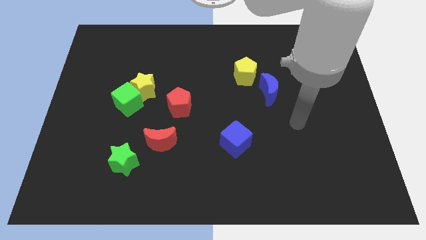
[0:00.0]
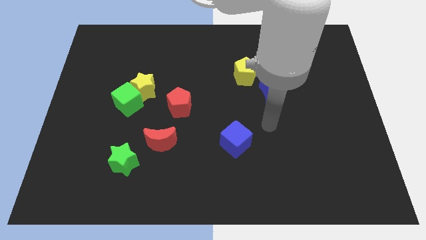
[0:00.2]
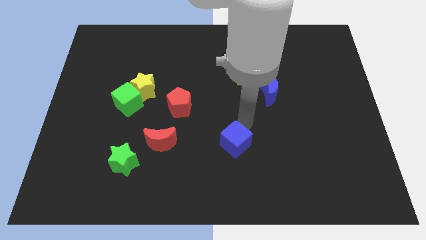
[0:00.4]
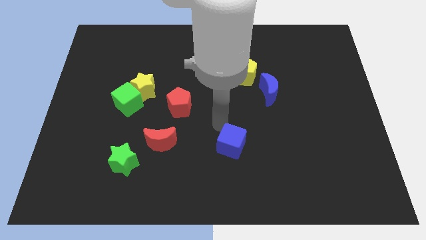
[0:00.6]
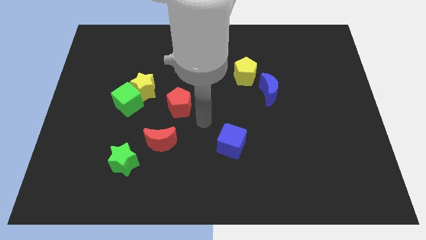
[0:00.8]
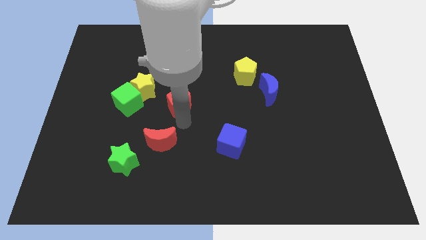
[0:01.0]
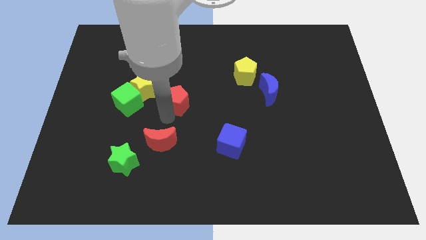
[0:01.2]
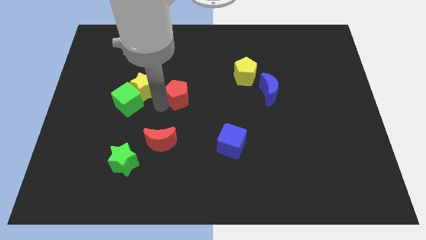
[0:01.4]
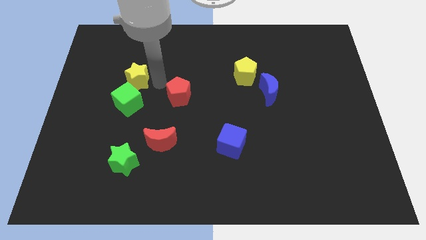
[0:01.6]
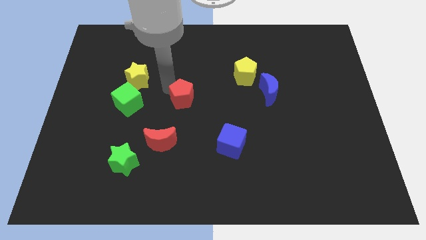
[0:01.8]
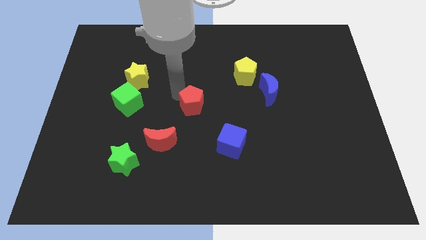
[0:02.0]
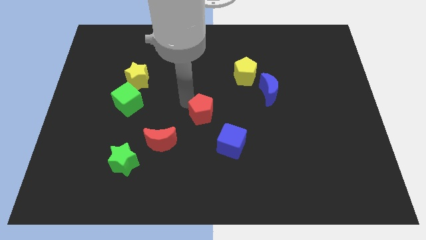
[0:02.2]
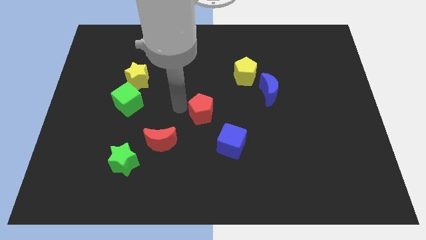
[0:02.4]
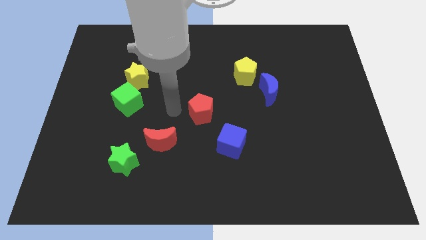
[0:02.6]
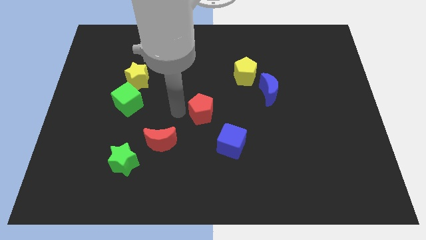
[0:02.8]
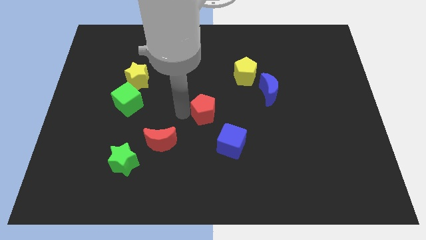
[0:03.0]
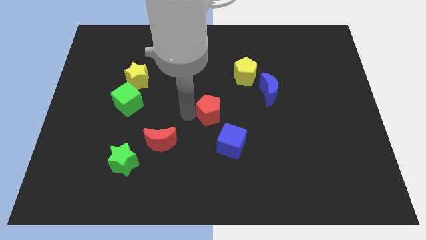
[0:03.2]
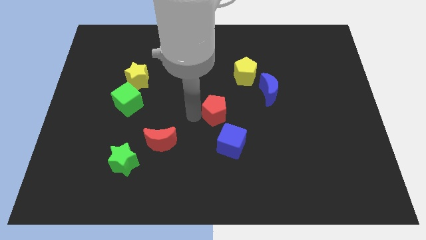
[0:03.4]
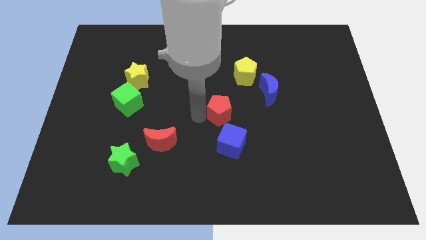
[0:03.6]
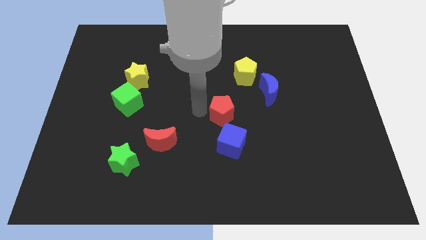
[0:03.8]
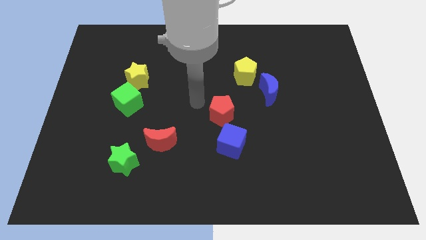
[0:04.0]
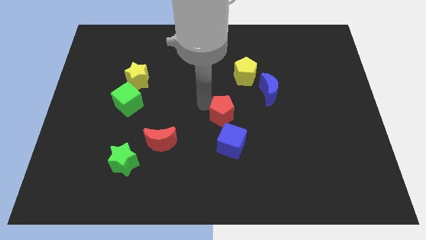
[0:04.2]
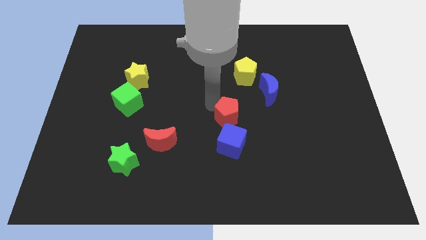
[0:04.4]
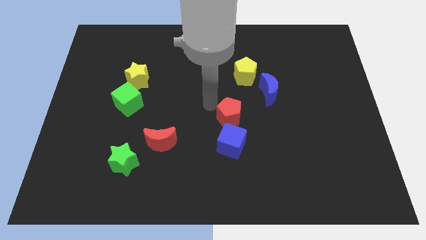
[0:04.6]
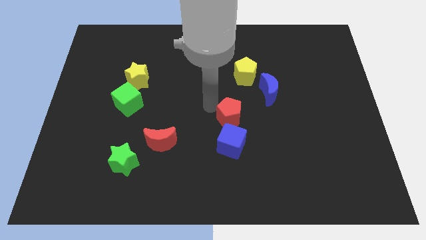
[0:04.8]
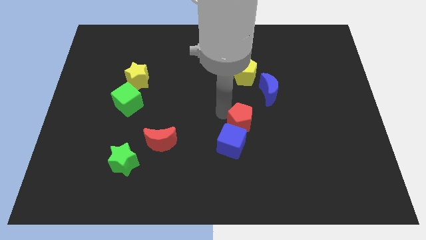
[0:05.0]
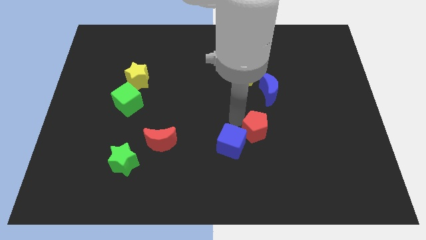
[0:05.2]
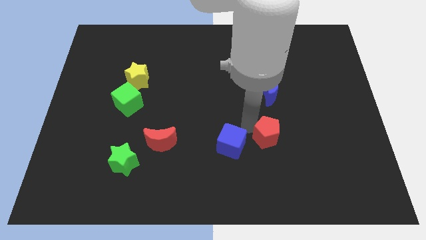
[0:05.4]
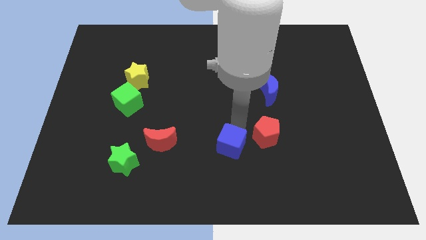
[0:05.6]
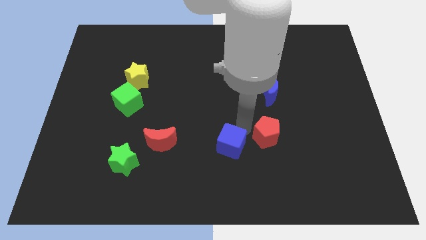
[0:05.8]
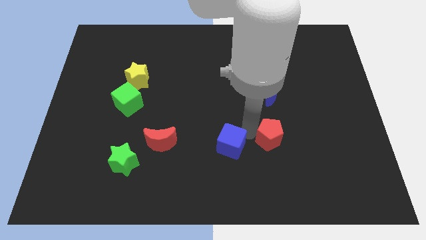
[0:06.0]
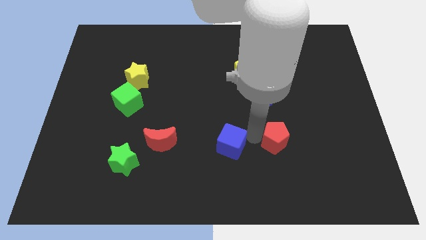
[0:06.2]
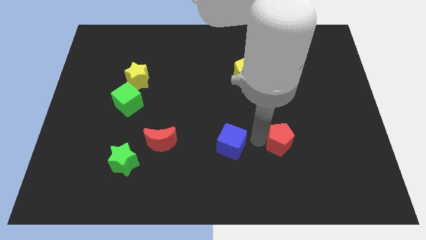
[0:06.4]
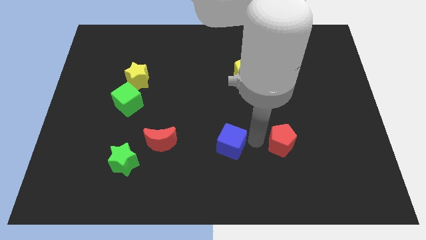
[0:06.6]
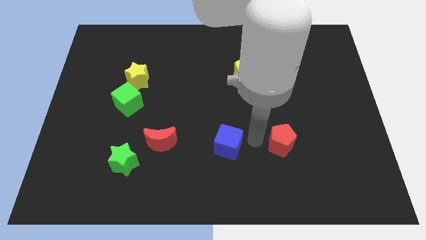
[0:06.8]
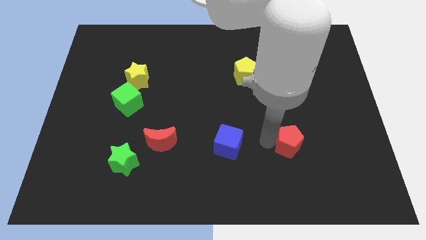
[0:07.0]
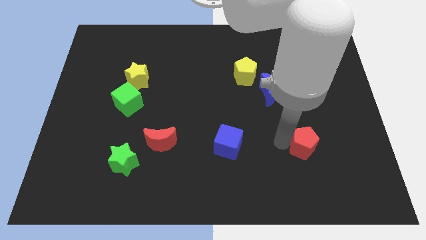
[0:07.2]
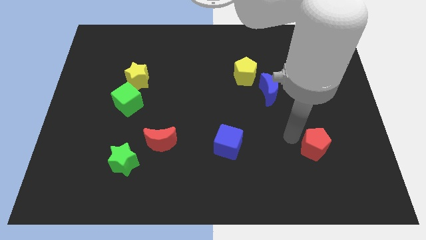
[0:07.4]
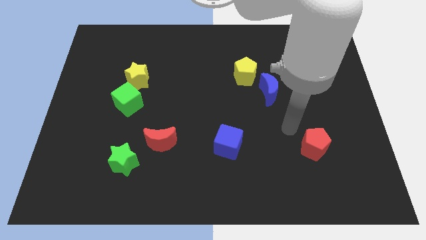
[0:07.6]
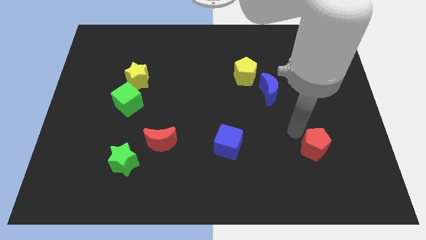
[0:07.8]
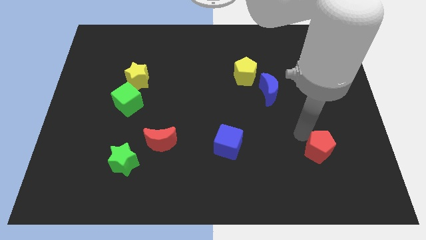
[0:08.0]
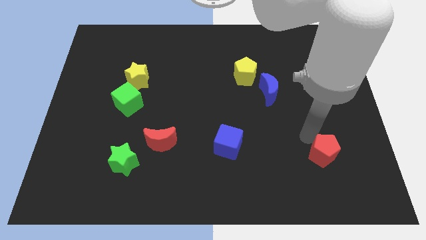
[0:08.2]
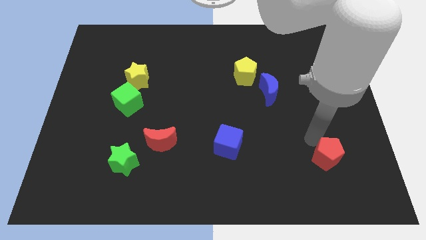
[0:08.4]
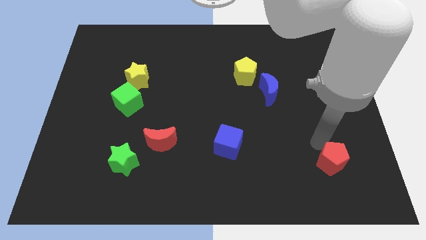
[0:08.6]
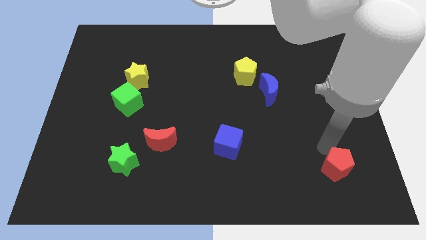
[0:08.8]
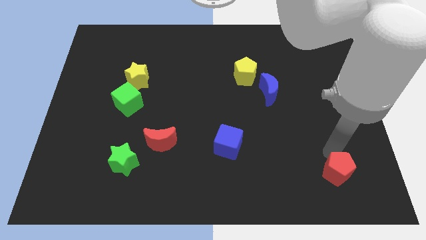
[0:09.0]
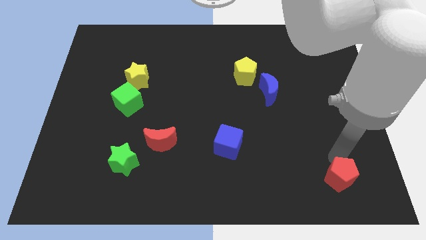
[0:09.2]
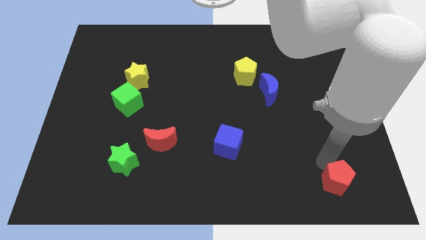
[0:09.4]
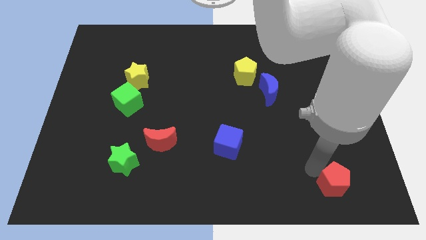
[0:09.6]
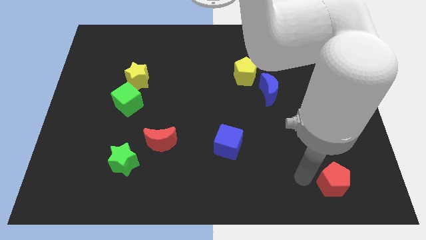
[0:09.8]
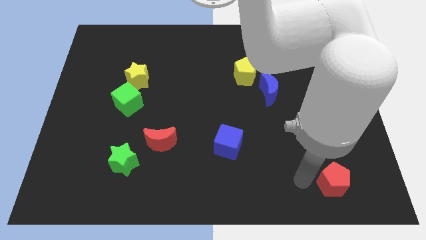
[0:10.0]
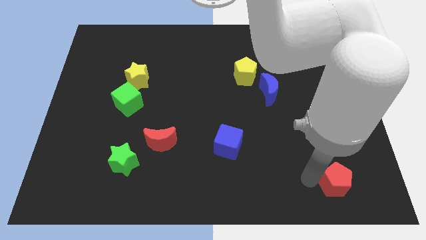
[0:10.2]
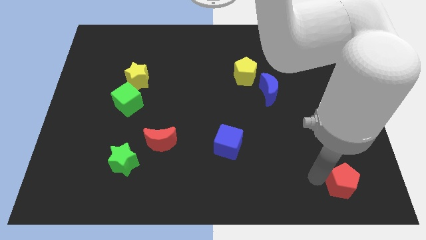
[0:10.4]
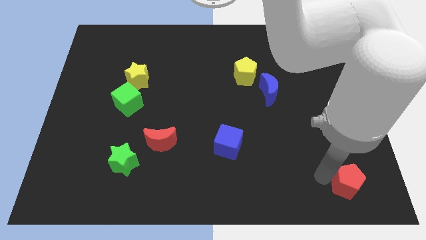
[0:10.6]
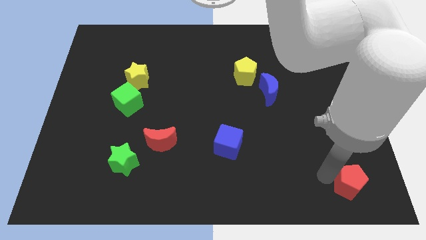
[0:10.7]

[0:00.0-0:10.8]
put the red pentagon to the bottom right corner

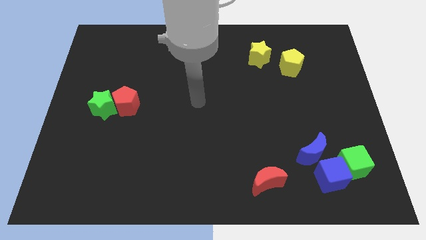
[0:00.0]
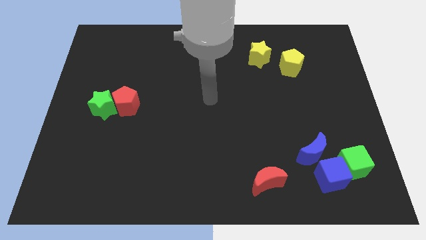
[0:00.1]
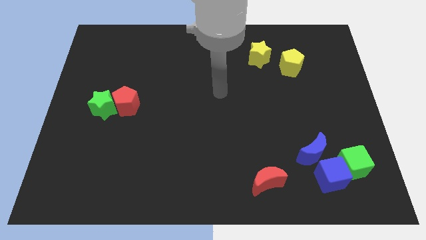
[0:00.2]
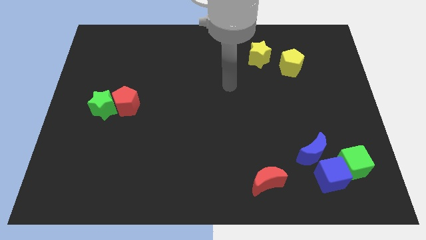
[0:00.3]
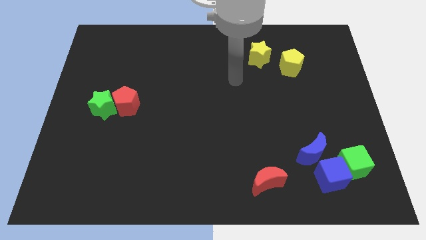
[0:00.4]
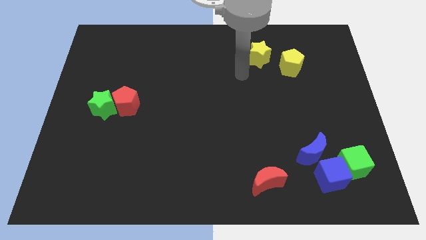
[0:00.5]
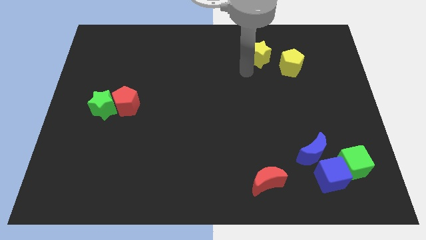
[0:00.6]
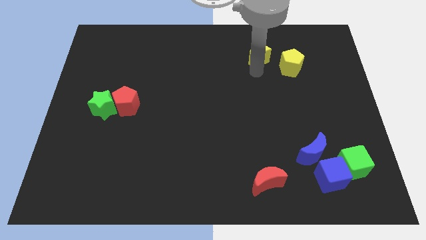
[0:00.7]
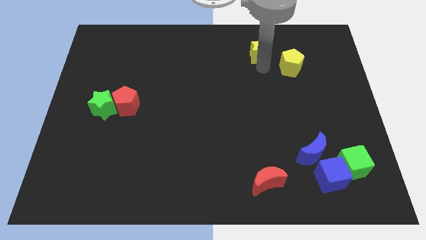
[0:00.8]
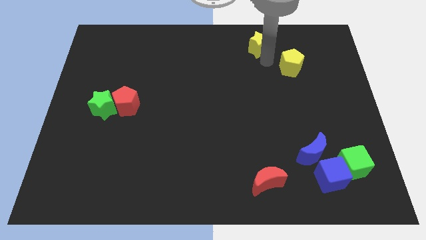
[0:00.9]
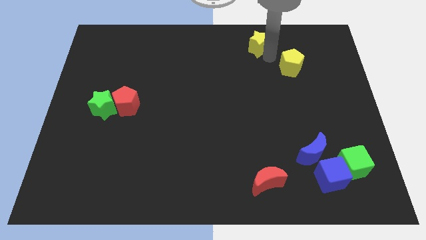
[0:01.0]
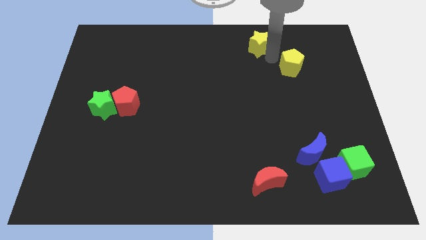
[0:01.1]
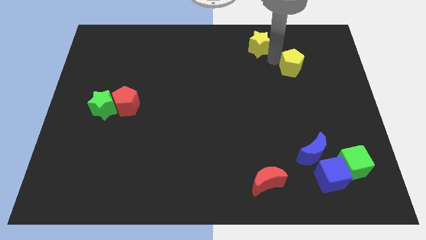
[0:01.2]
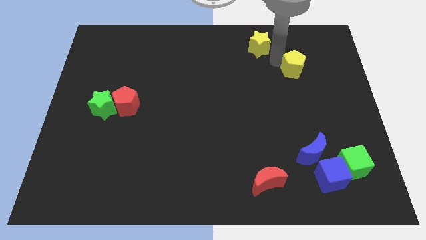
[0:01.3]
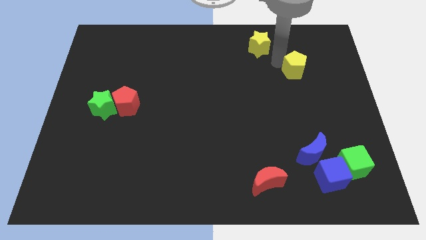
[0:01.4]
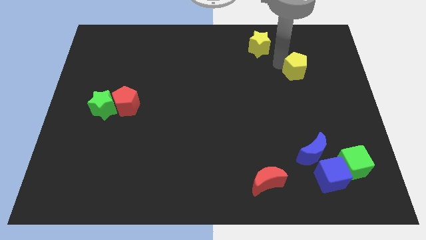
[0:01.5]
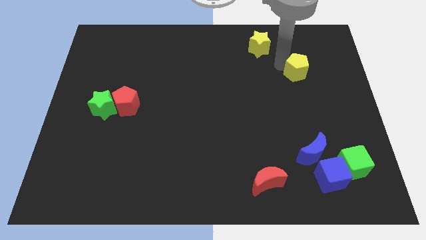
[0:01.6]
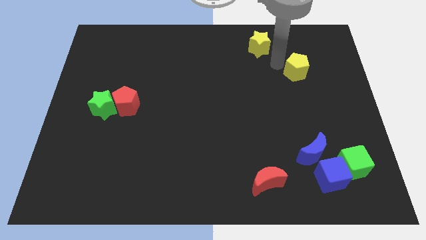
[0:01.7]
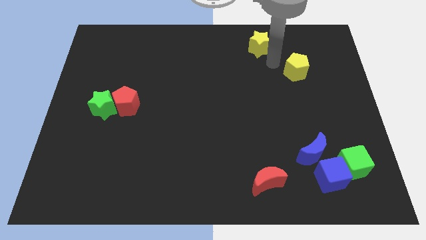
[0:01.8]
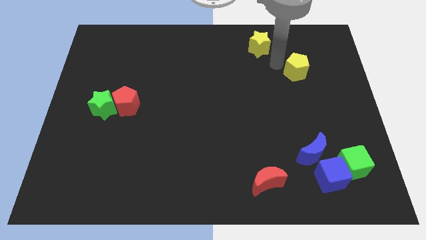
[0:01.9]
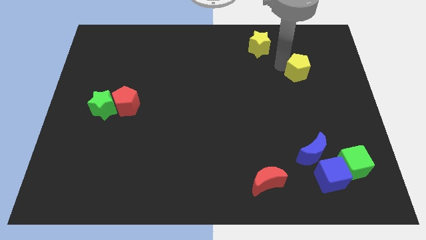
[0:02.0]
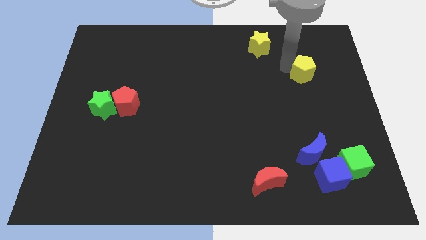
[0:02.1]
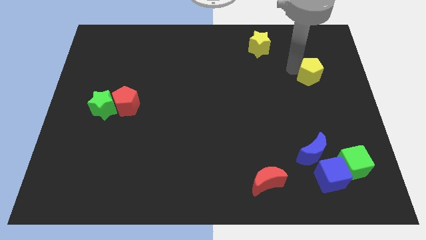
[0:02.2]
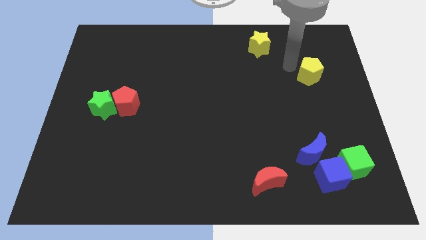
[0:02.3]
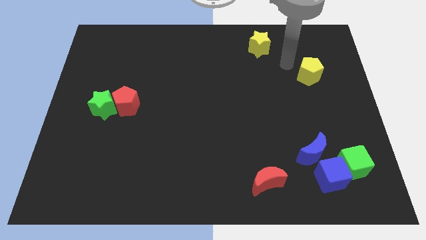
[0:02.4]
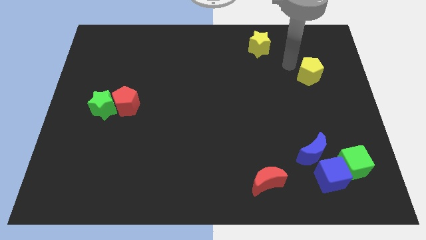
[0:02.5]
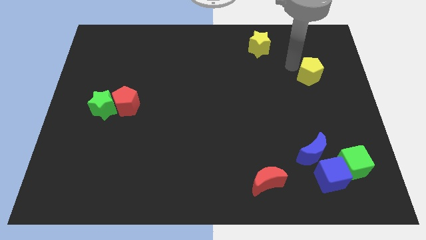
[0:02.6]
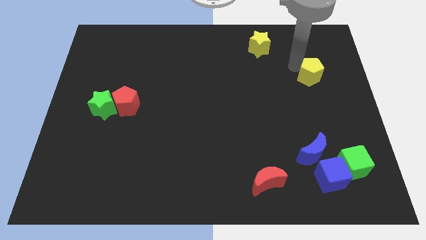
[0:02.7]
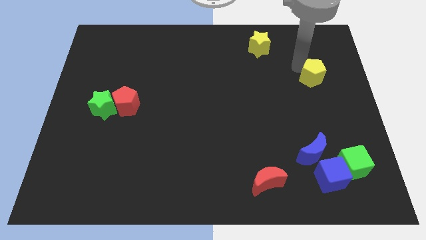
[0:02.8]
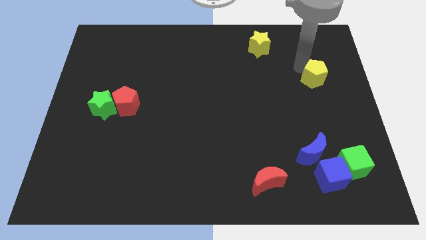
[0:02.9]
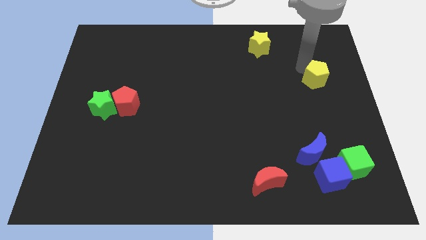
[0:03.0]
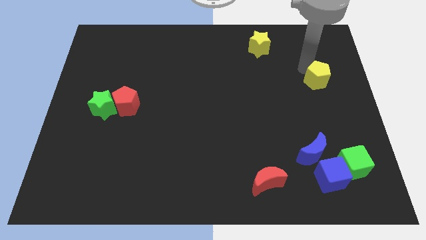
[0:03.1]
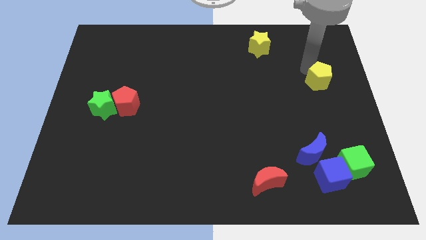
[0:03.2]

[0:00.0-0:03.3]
slide the yellow pentagon to the right side
